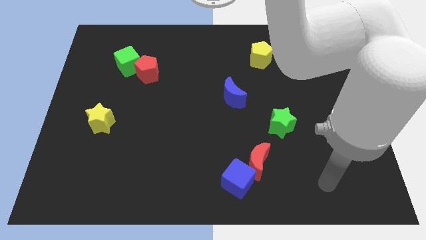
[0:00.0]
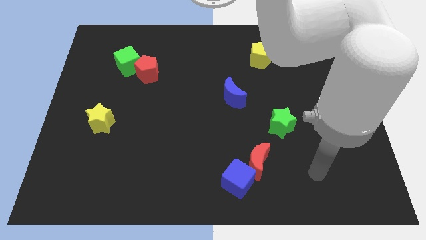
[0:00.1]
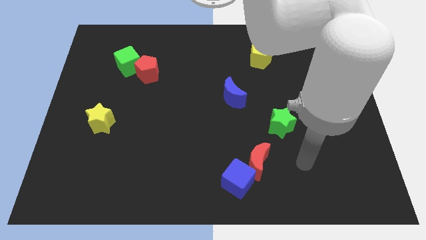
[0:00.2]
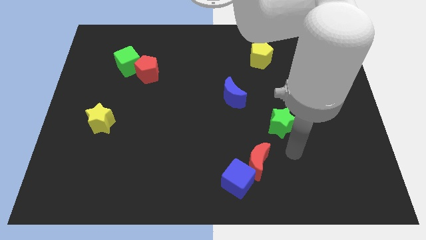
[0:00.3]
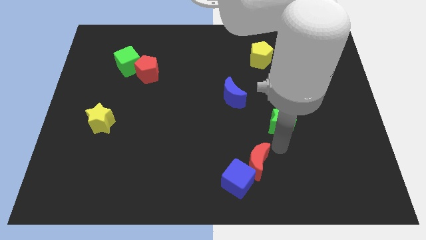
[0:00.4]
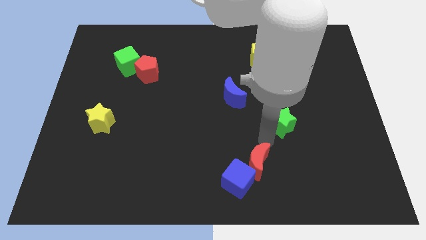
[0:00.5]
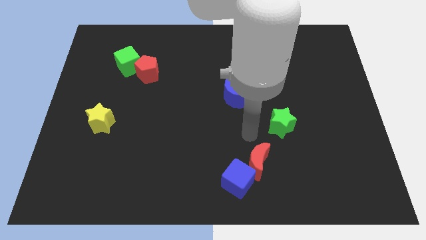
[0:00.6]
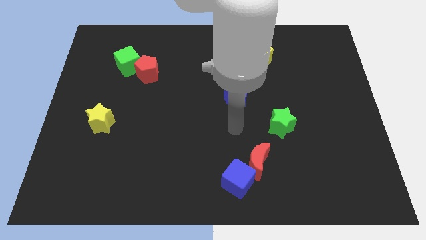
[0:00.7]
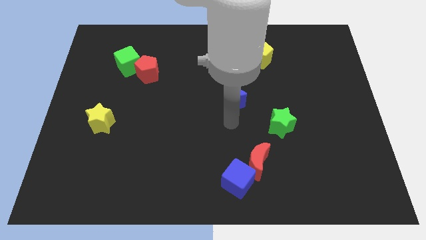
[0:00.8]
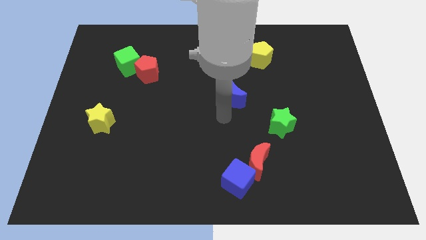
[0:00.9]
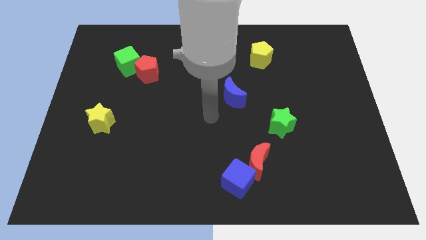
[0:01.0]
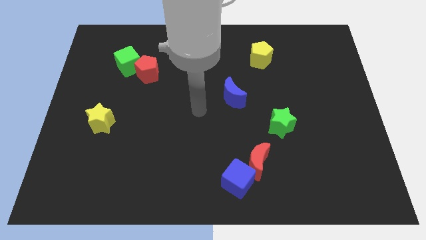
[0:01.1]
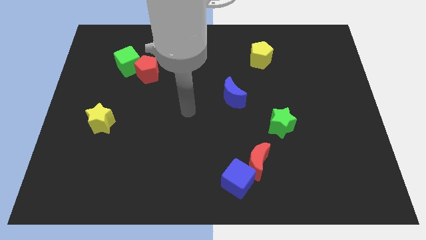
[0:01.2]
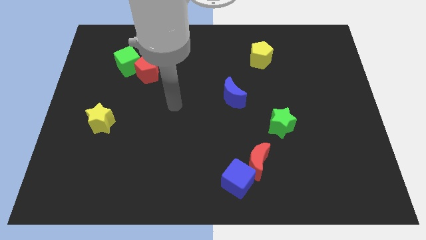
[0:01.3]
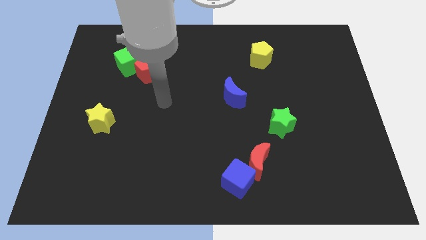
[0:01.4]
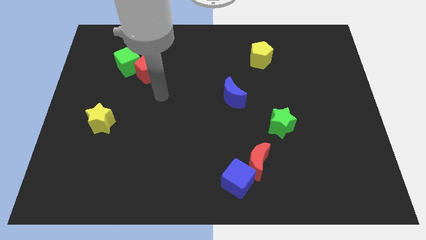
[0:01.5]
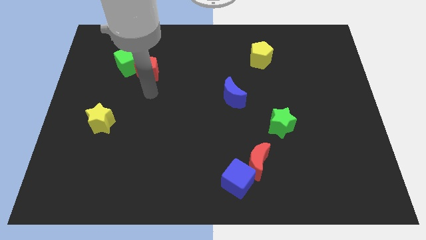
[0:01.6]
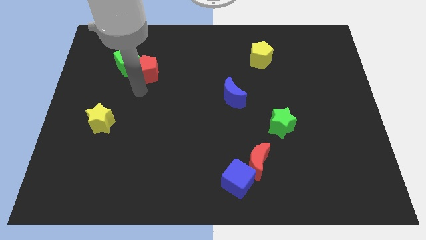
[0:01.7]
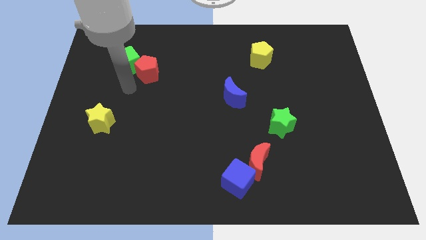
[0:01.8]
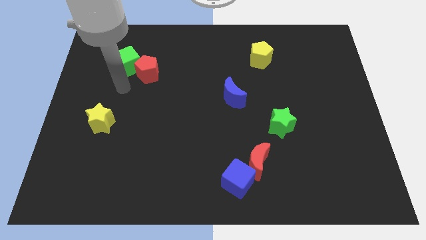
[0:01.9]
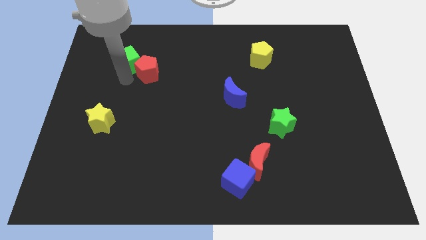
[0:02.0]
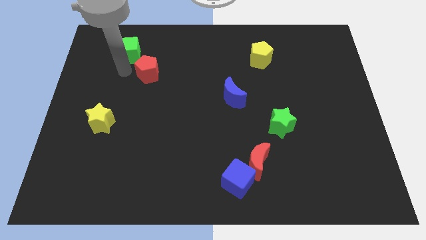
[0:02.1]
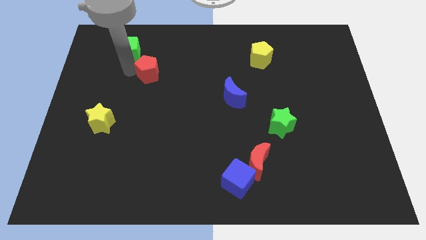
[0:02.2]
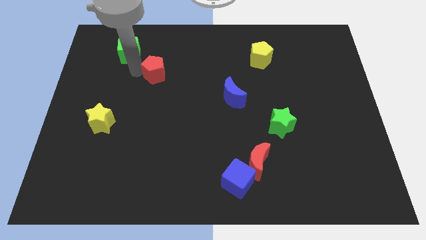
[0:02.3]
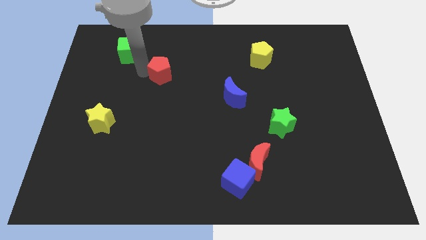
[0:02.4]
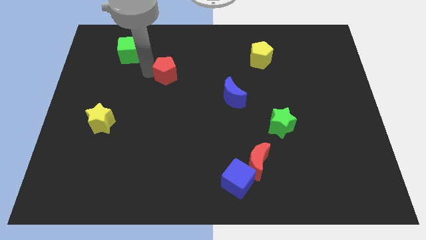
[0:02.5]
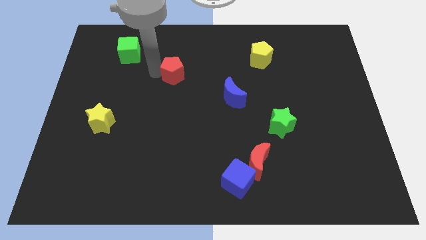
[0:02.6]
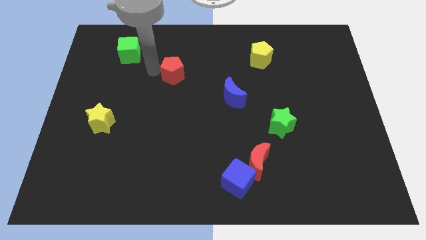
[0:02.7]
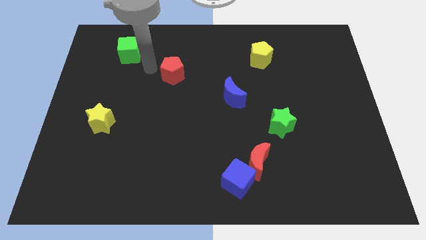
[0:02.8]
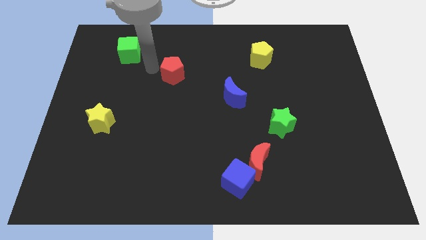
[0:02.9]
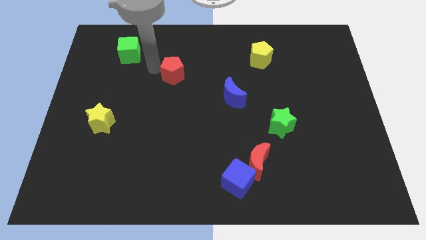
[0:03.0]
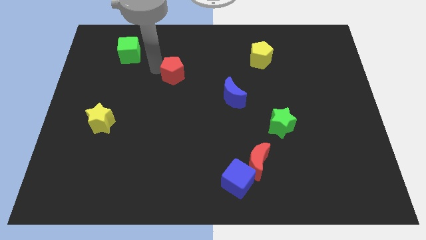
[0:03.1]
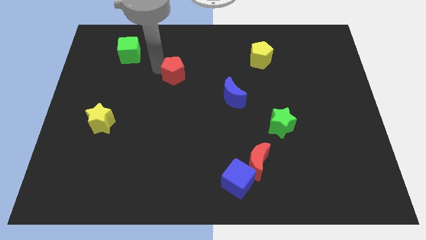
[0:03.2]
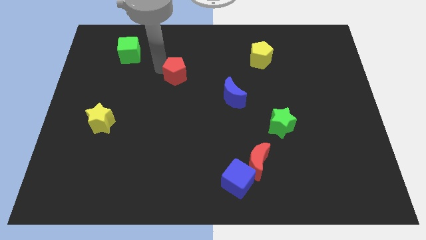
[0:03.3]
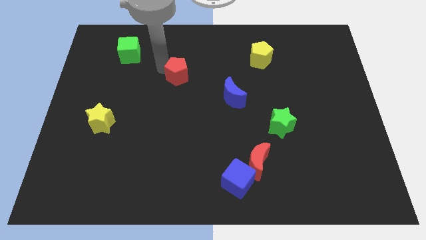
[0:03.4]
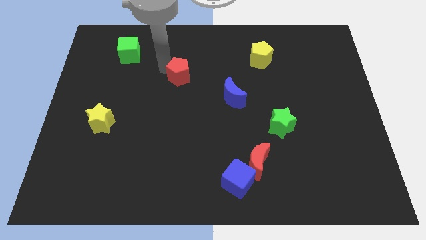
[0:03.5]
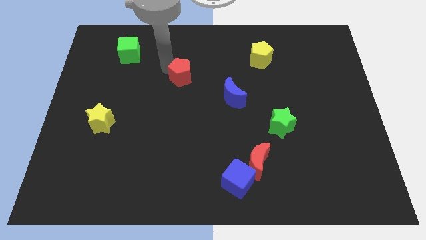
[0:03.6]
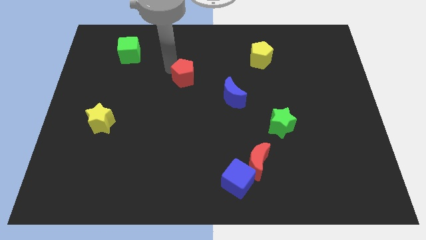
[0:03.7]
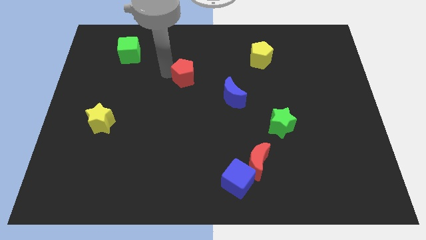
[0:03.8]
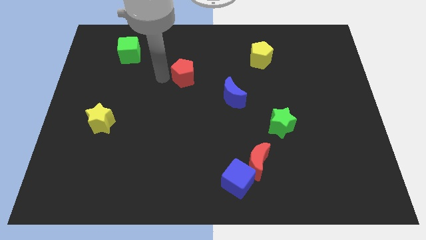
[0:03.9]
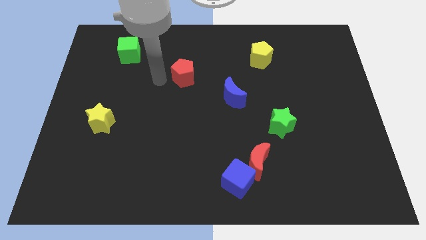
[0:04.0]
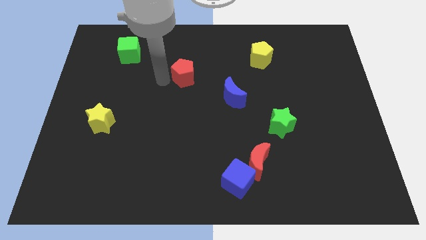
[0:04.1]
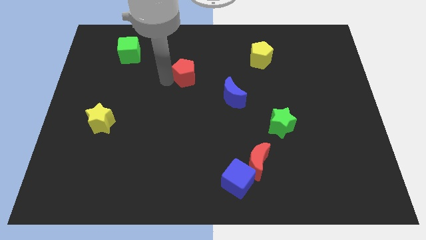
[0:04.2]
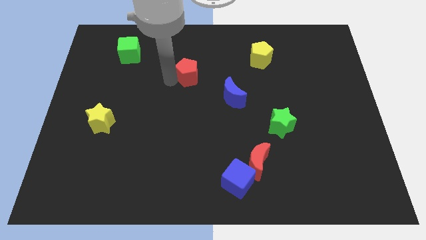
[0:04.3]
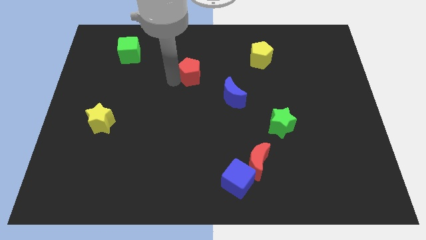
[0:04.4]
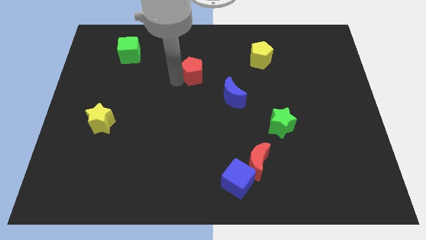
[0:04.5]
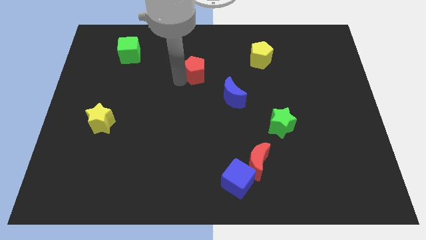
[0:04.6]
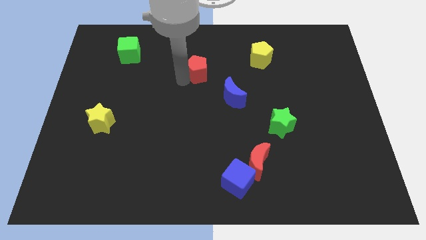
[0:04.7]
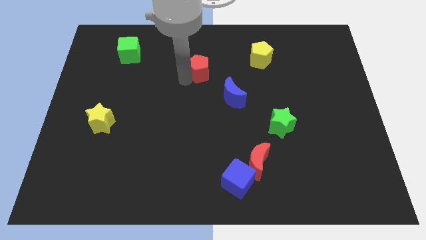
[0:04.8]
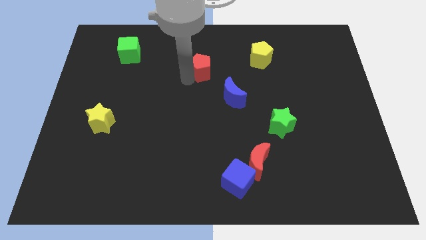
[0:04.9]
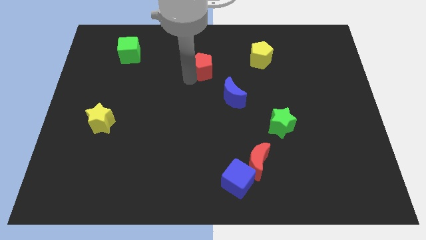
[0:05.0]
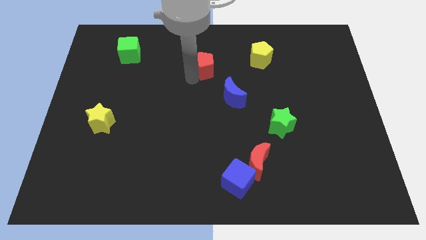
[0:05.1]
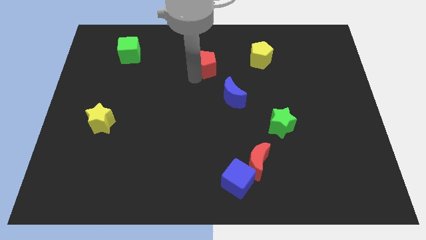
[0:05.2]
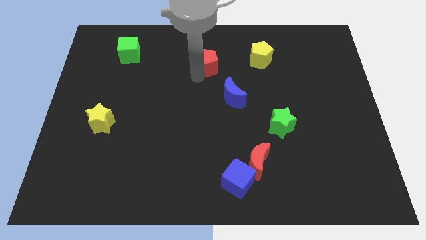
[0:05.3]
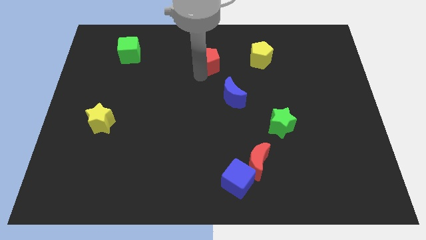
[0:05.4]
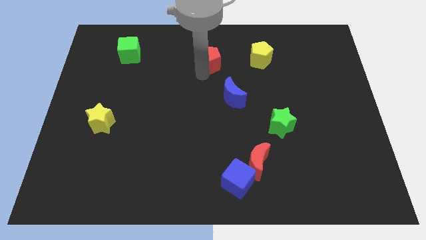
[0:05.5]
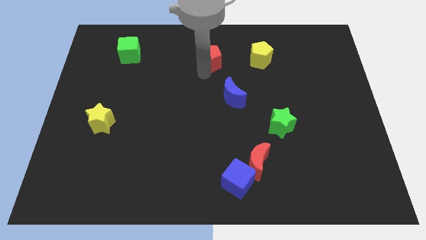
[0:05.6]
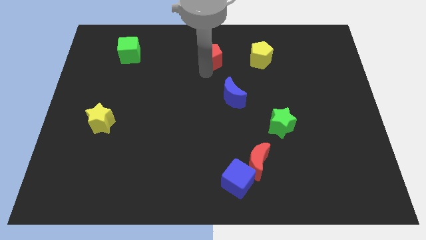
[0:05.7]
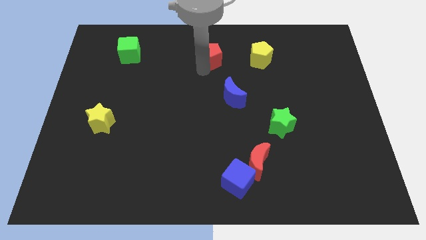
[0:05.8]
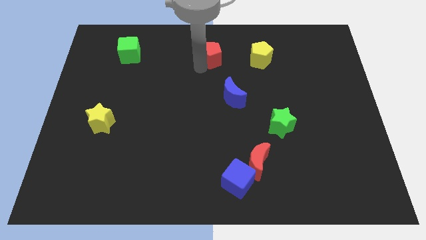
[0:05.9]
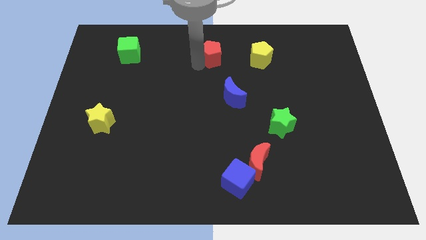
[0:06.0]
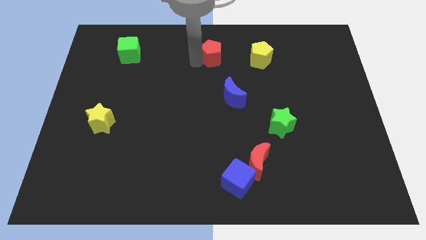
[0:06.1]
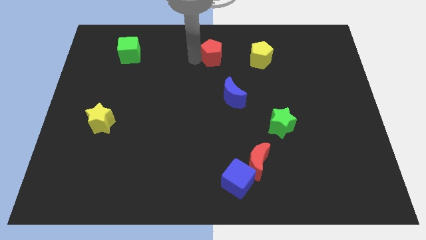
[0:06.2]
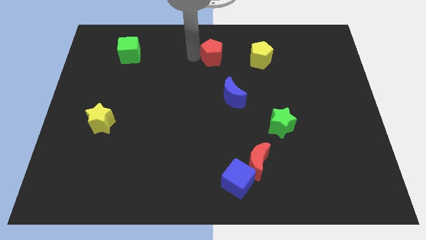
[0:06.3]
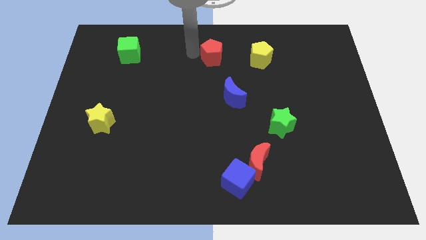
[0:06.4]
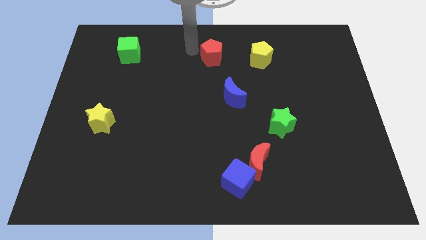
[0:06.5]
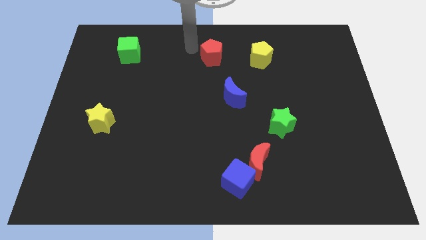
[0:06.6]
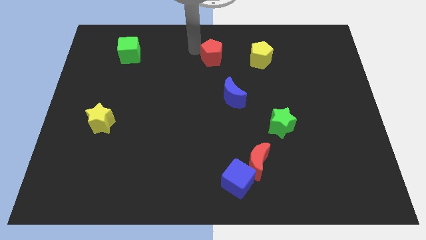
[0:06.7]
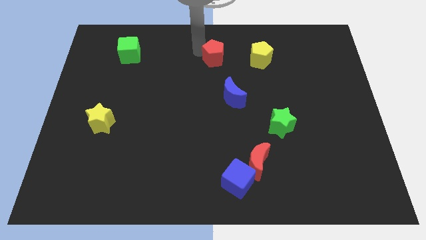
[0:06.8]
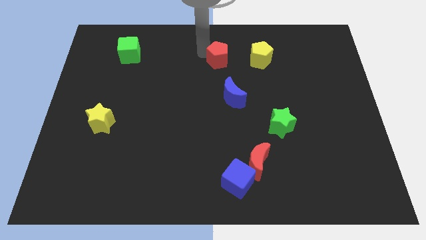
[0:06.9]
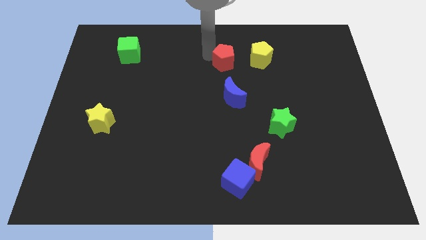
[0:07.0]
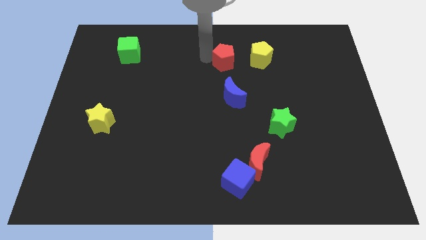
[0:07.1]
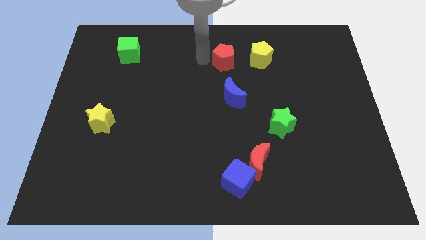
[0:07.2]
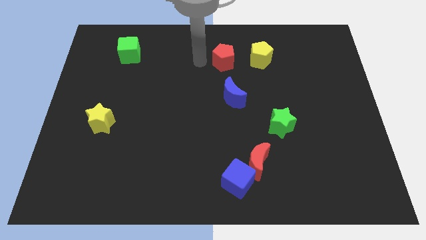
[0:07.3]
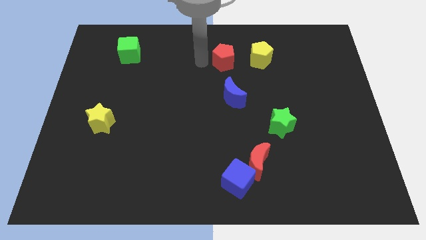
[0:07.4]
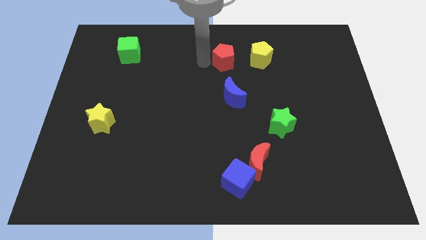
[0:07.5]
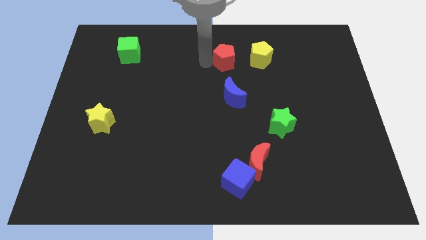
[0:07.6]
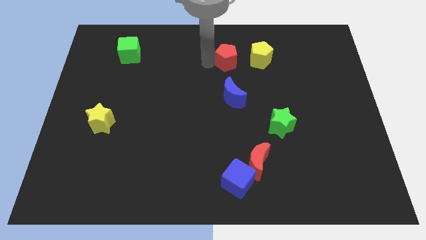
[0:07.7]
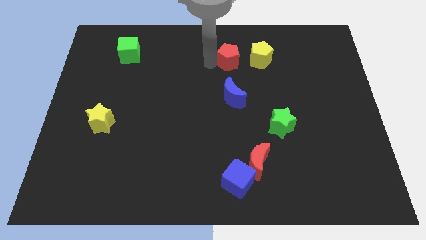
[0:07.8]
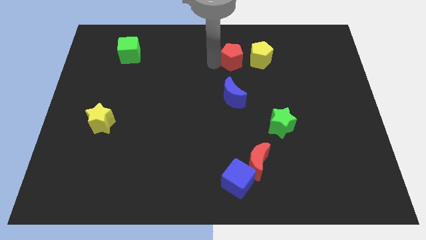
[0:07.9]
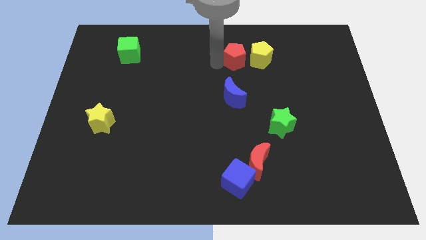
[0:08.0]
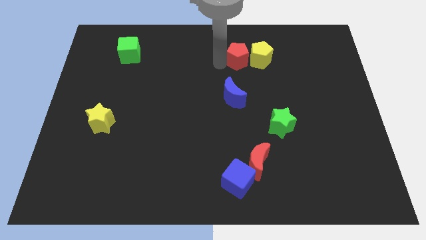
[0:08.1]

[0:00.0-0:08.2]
put the red pentagon next to the yellow pentagon
